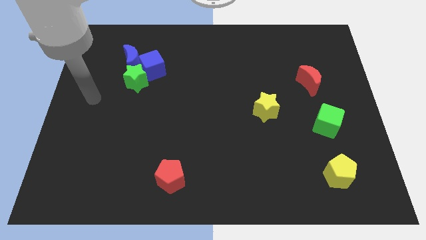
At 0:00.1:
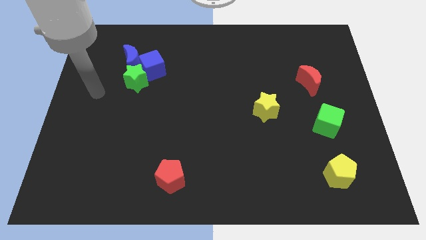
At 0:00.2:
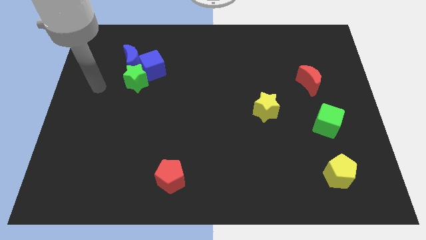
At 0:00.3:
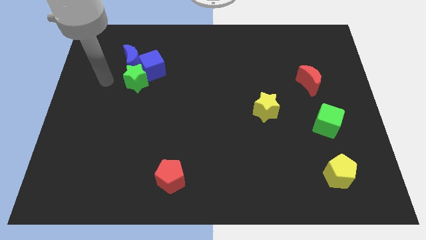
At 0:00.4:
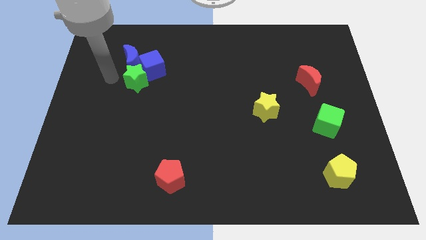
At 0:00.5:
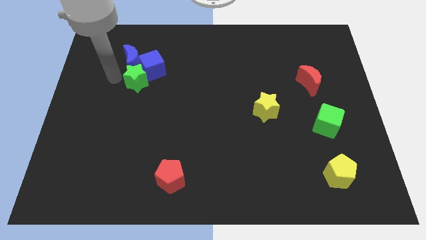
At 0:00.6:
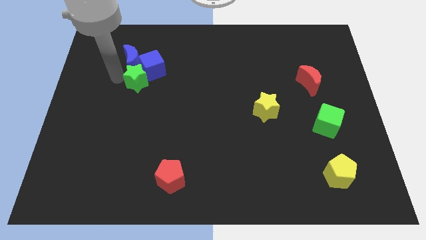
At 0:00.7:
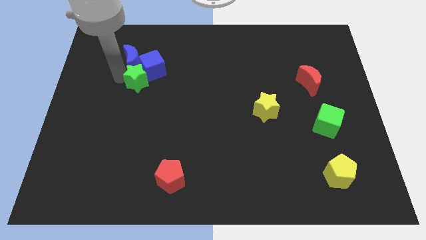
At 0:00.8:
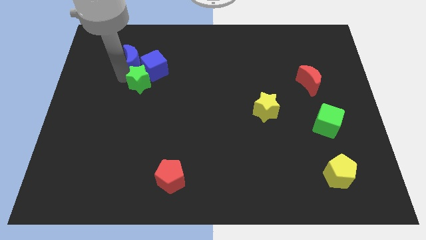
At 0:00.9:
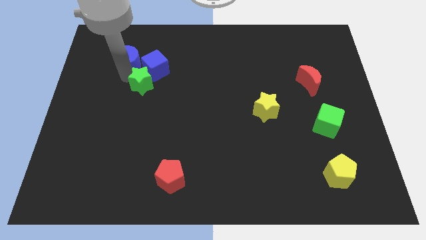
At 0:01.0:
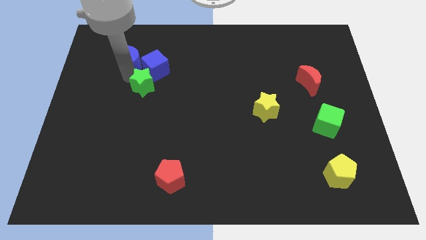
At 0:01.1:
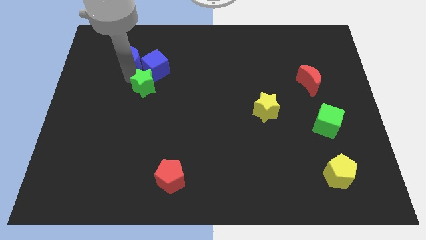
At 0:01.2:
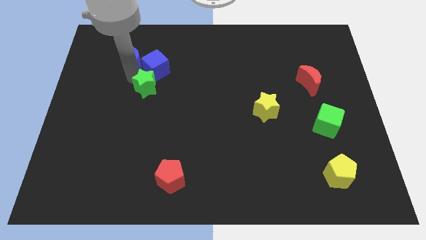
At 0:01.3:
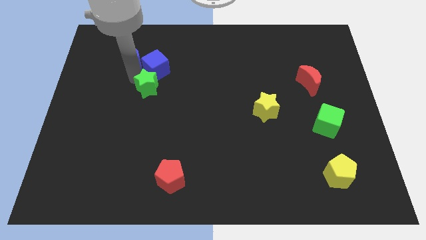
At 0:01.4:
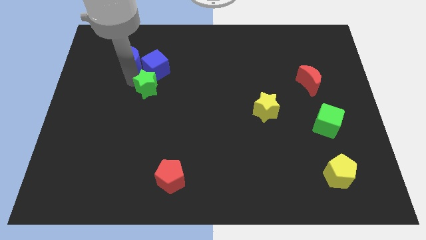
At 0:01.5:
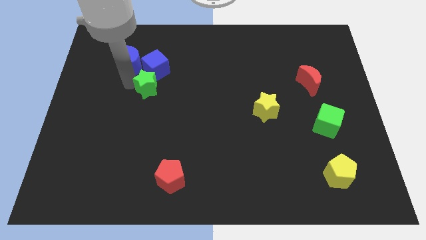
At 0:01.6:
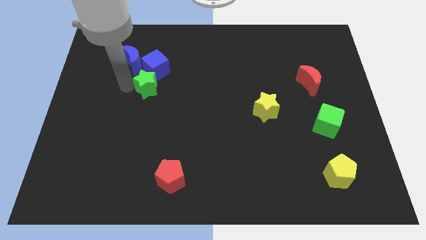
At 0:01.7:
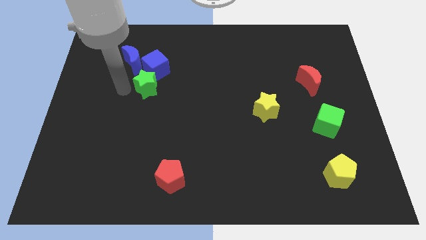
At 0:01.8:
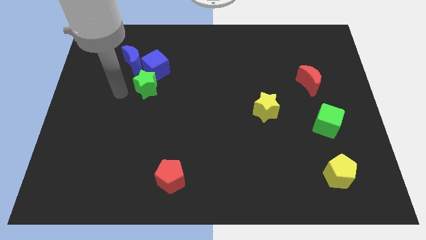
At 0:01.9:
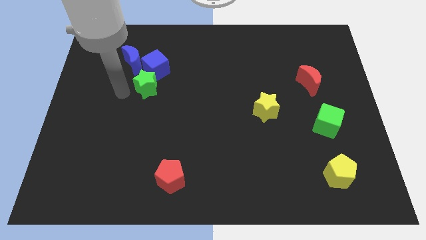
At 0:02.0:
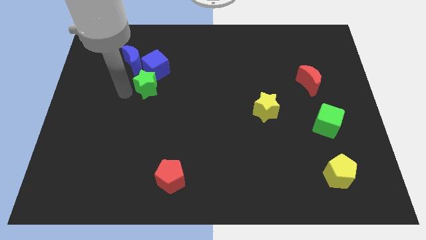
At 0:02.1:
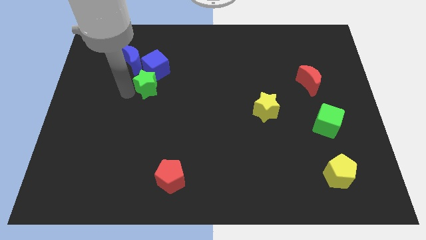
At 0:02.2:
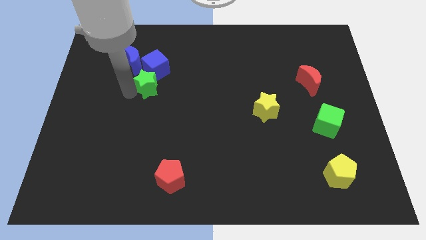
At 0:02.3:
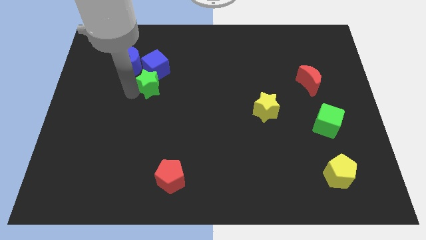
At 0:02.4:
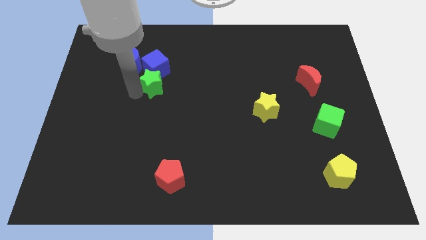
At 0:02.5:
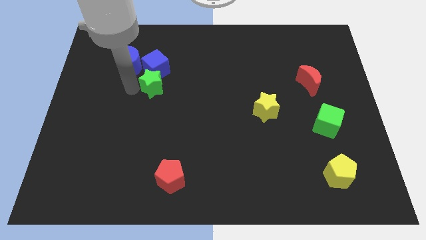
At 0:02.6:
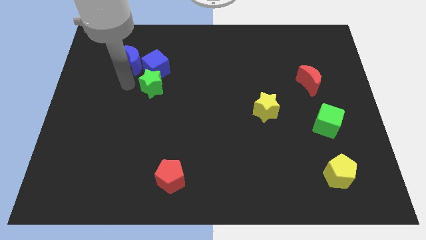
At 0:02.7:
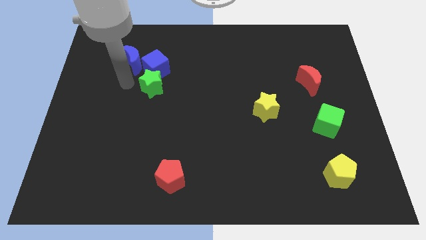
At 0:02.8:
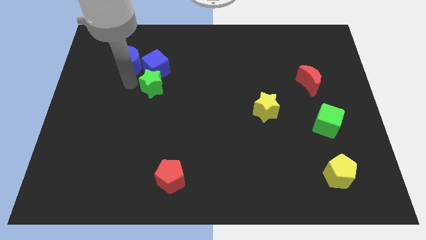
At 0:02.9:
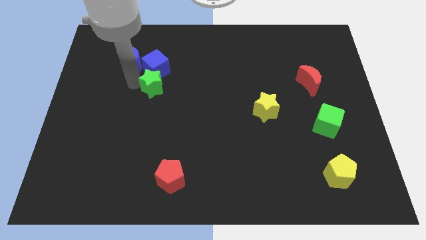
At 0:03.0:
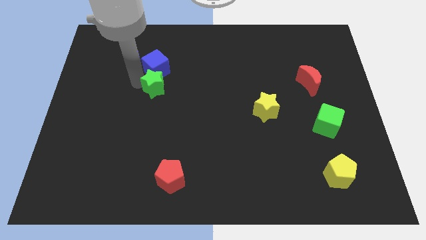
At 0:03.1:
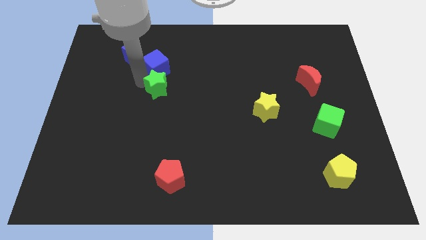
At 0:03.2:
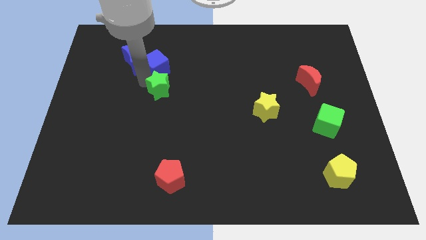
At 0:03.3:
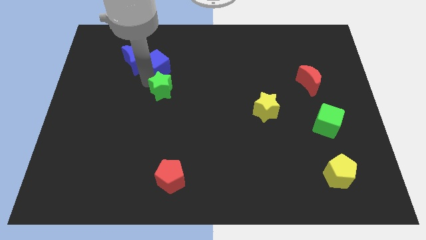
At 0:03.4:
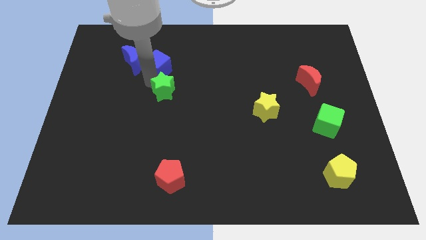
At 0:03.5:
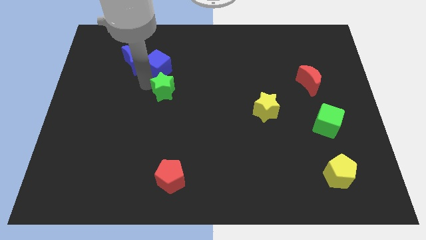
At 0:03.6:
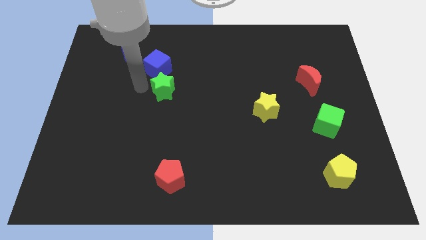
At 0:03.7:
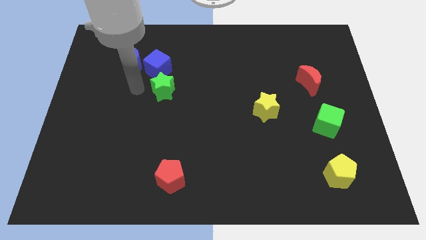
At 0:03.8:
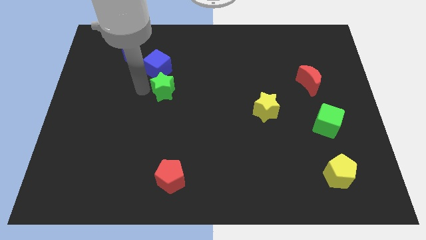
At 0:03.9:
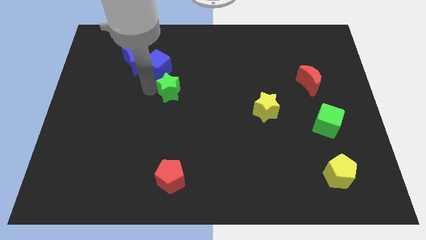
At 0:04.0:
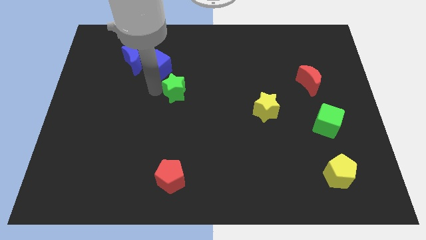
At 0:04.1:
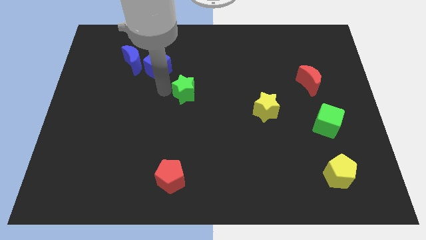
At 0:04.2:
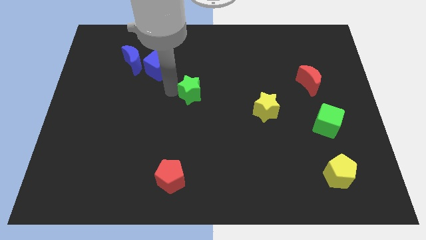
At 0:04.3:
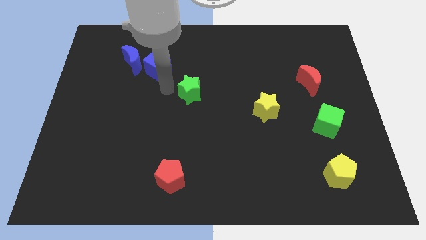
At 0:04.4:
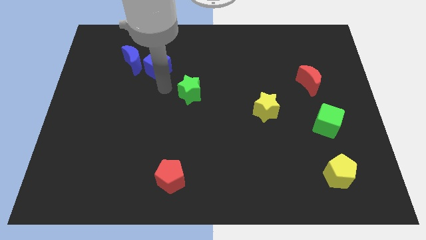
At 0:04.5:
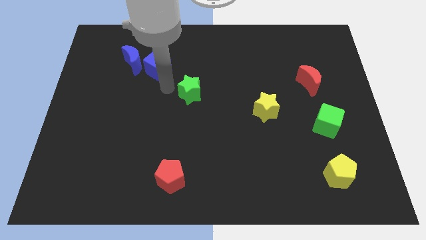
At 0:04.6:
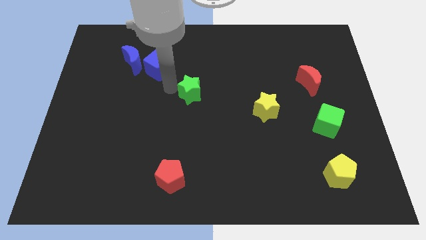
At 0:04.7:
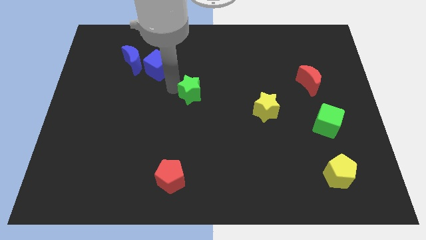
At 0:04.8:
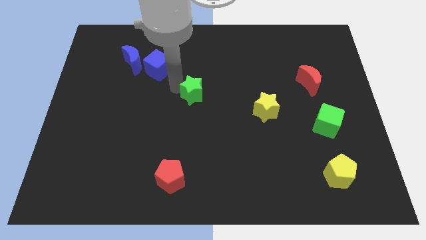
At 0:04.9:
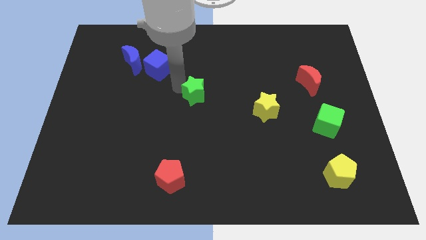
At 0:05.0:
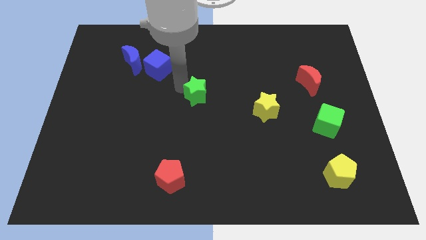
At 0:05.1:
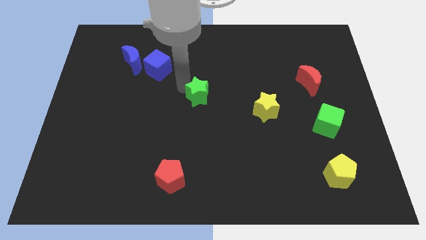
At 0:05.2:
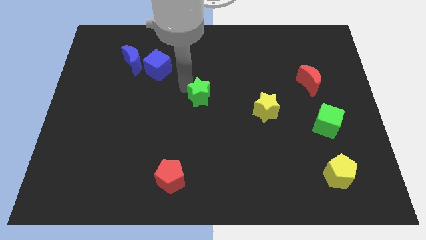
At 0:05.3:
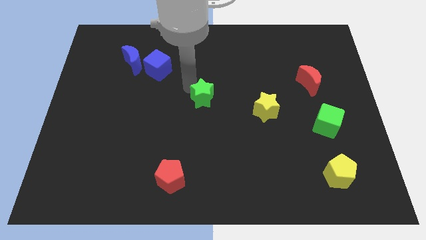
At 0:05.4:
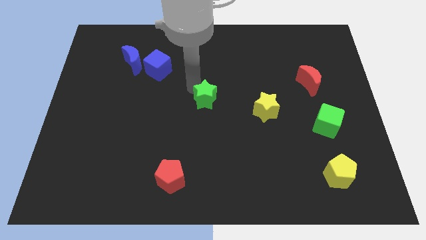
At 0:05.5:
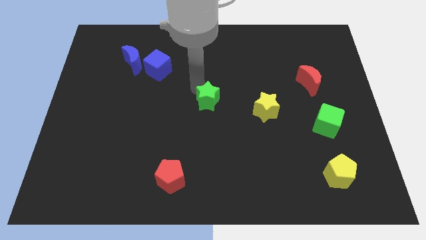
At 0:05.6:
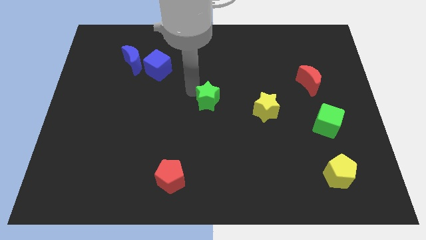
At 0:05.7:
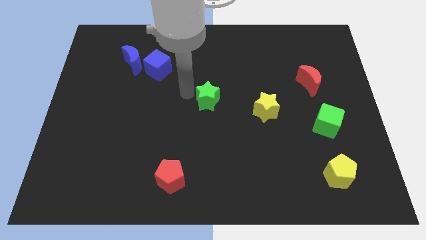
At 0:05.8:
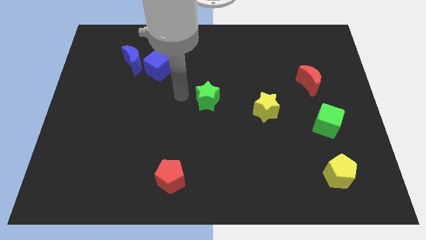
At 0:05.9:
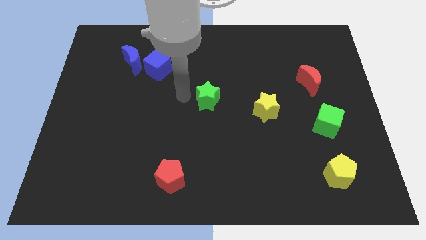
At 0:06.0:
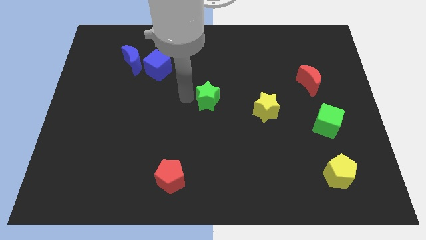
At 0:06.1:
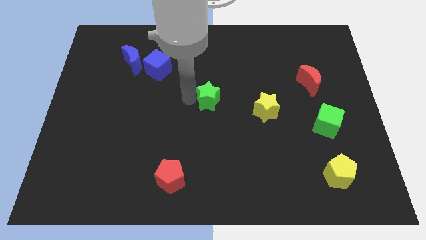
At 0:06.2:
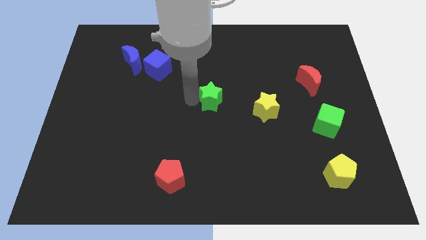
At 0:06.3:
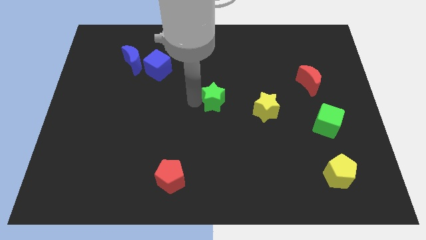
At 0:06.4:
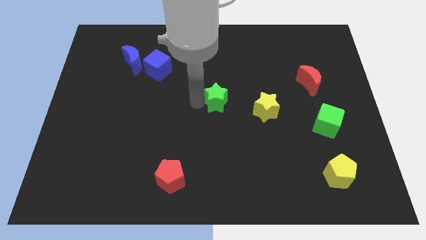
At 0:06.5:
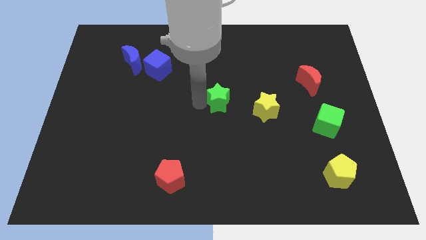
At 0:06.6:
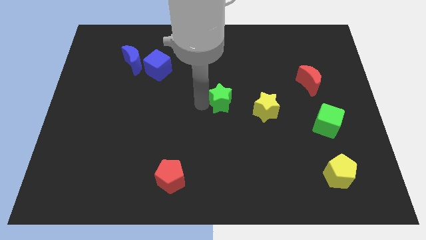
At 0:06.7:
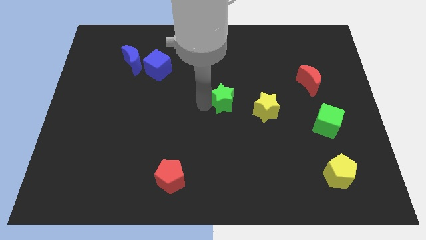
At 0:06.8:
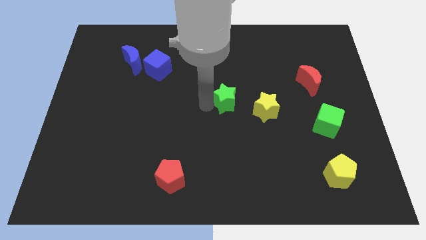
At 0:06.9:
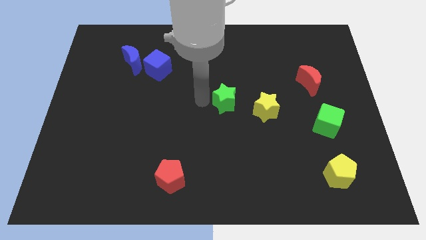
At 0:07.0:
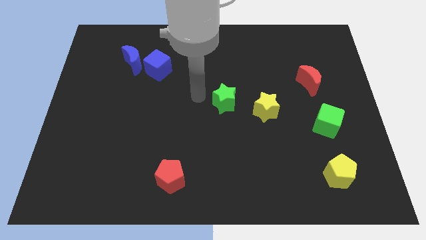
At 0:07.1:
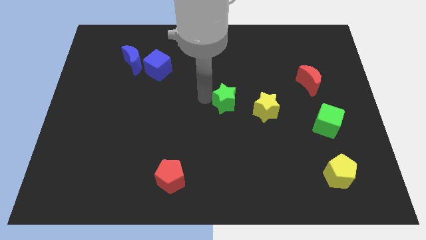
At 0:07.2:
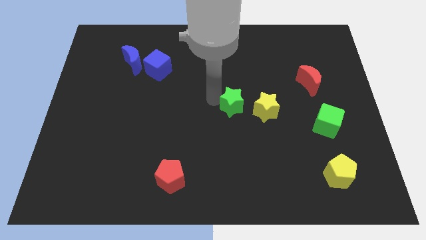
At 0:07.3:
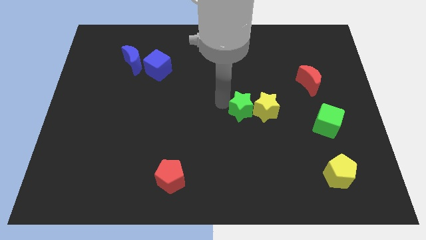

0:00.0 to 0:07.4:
move the green star to the yellow star
